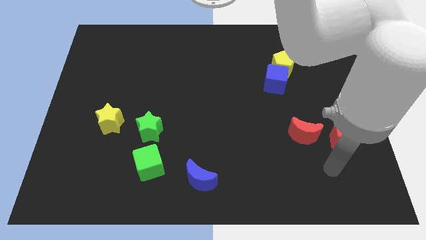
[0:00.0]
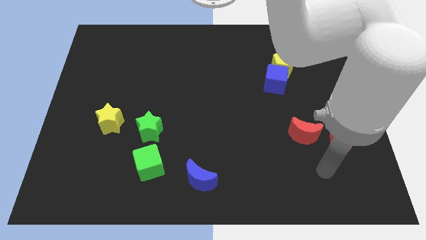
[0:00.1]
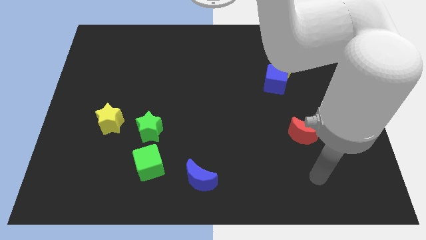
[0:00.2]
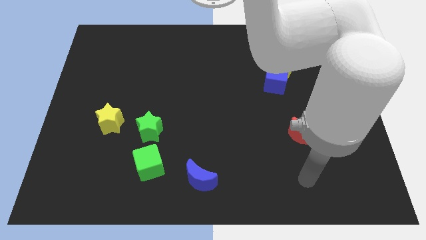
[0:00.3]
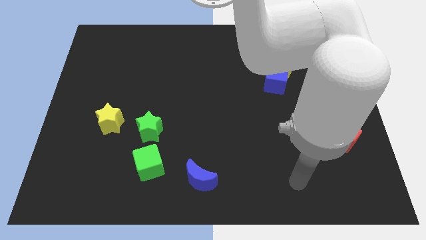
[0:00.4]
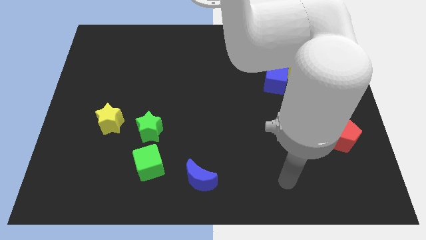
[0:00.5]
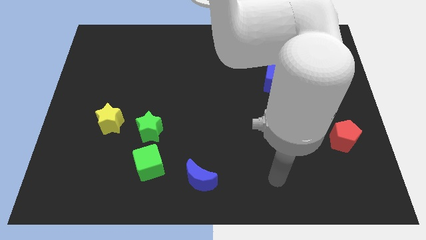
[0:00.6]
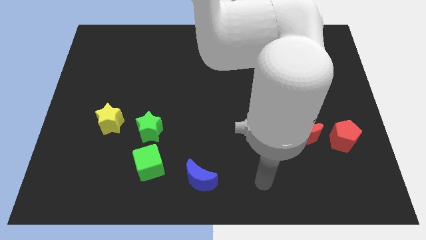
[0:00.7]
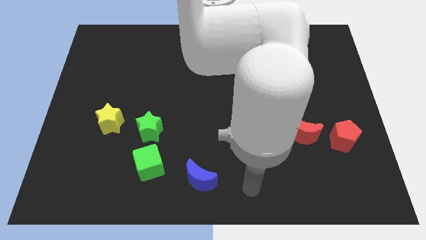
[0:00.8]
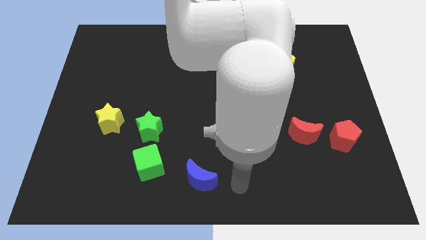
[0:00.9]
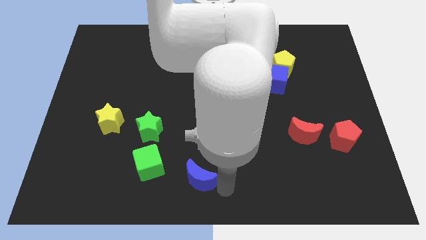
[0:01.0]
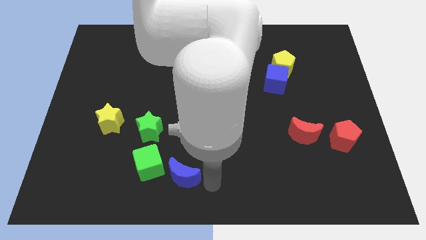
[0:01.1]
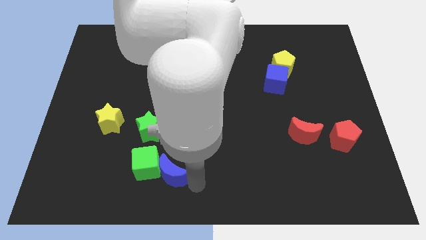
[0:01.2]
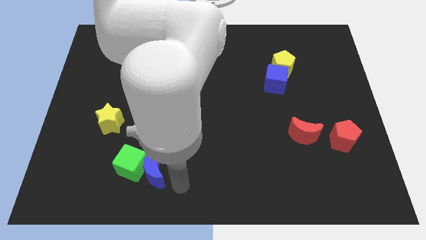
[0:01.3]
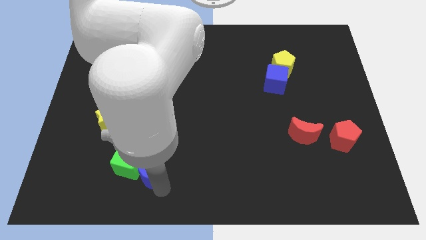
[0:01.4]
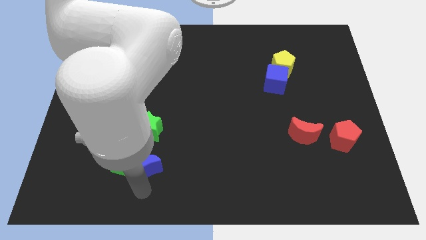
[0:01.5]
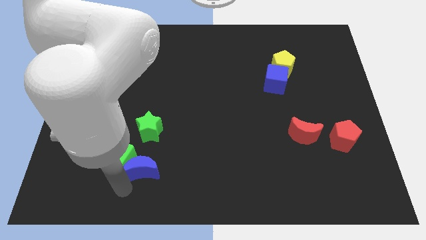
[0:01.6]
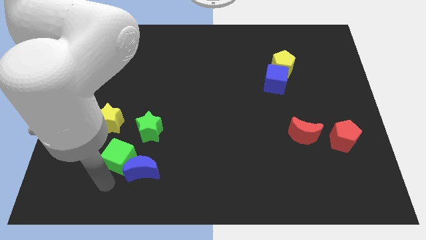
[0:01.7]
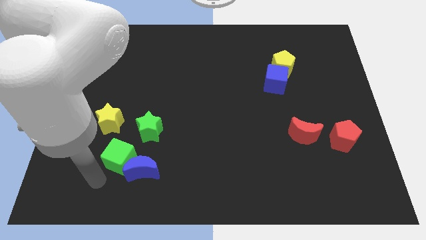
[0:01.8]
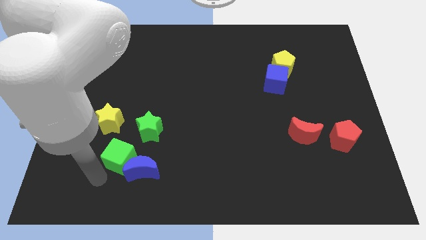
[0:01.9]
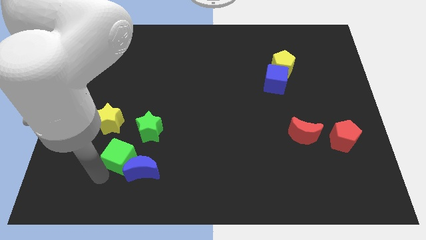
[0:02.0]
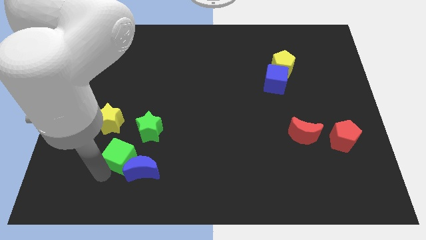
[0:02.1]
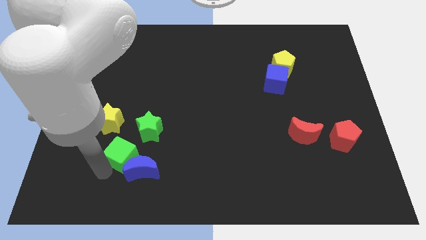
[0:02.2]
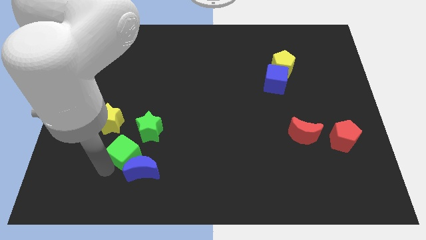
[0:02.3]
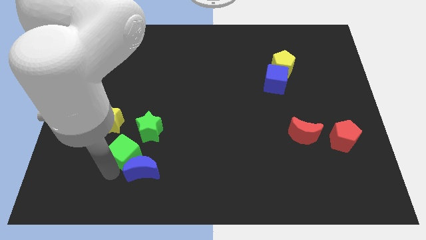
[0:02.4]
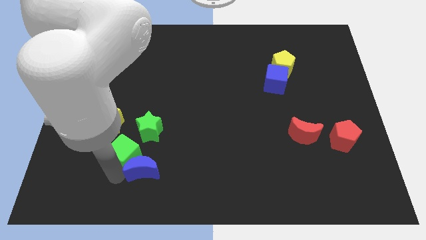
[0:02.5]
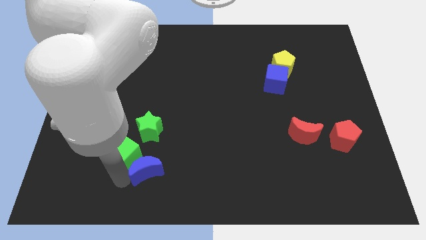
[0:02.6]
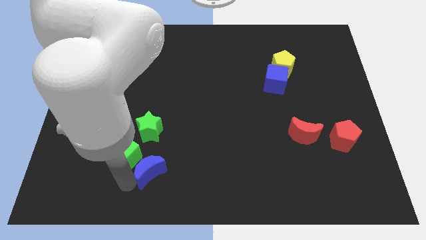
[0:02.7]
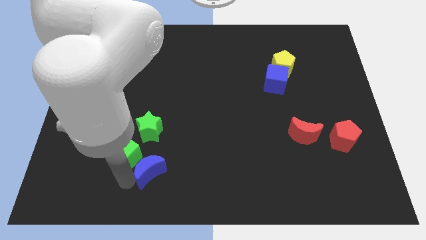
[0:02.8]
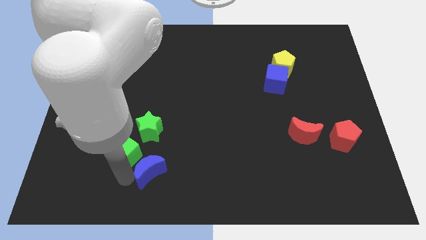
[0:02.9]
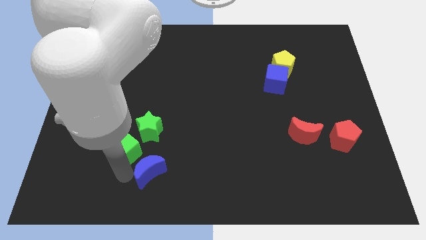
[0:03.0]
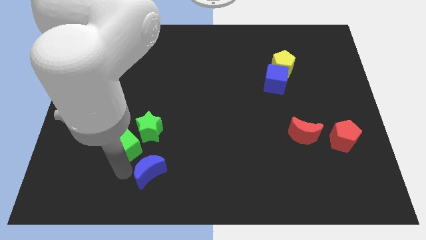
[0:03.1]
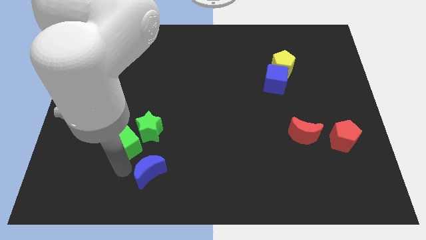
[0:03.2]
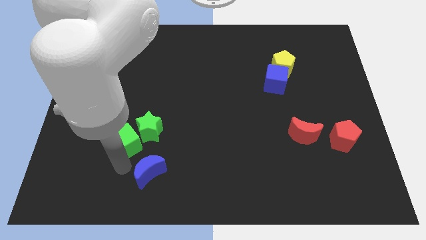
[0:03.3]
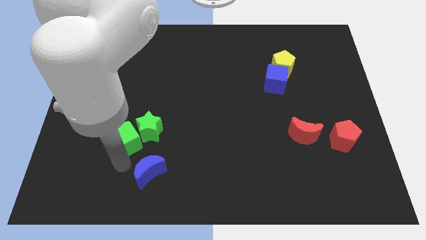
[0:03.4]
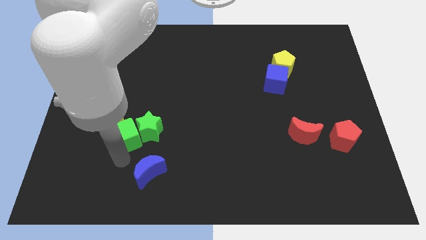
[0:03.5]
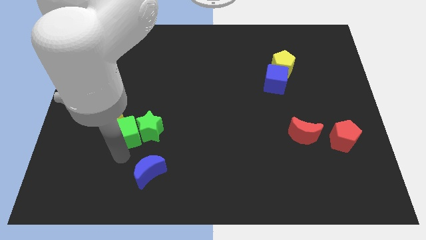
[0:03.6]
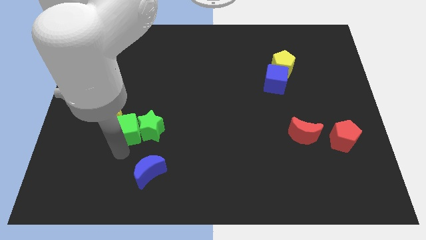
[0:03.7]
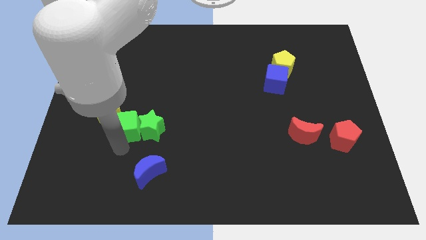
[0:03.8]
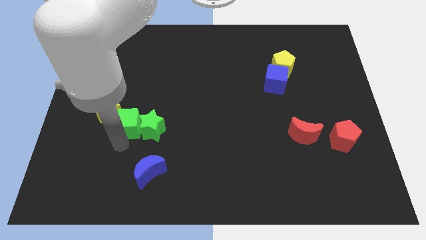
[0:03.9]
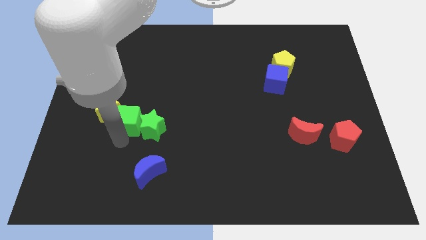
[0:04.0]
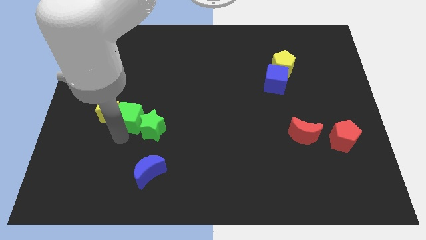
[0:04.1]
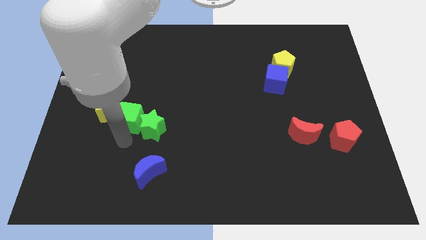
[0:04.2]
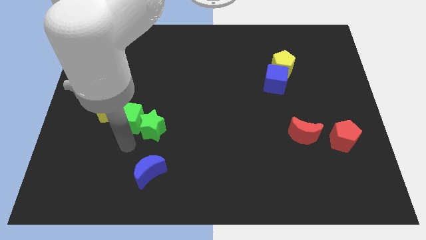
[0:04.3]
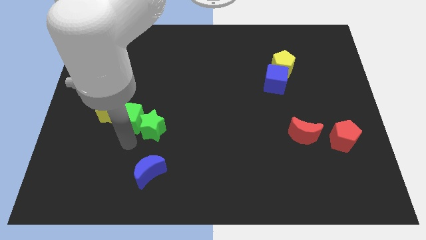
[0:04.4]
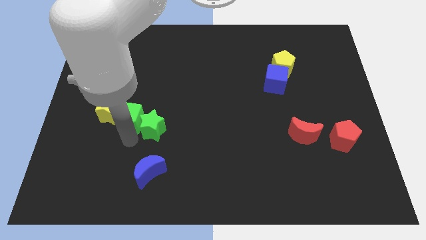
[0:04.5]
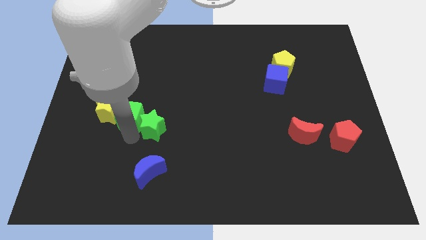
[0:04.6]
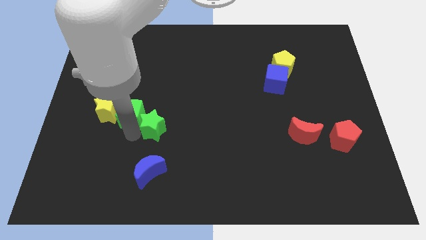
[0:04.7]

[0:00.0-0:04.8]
move the green cube to the top right of the yellow star

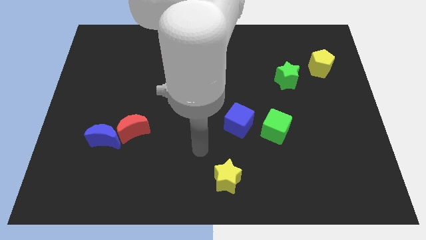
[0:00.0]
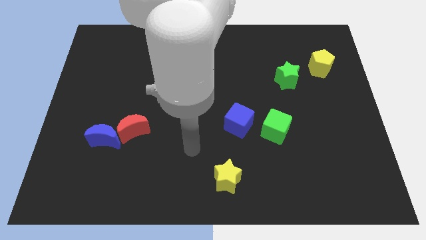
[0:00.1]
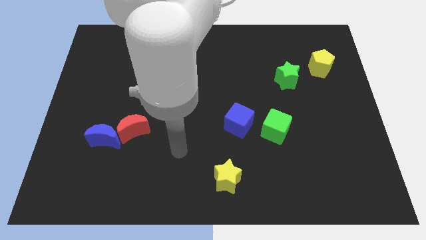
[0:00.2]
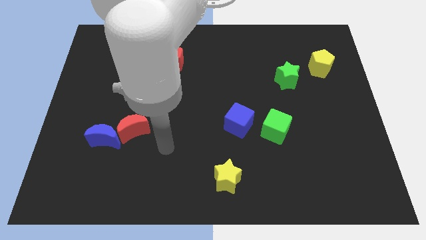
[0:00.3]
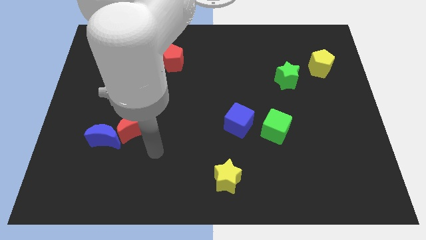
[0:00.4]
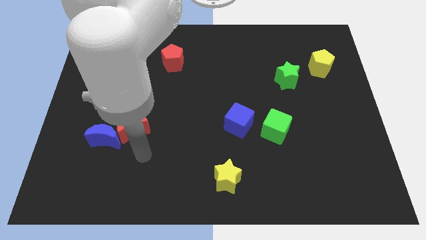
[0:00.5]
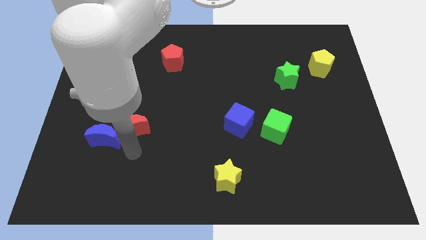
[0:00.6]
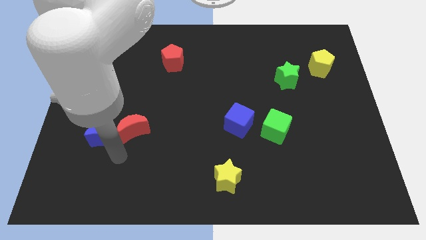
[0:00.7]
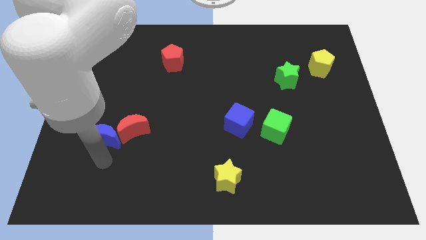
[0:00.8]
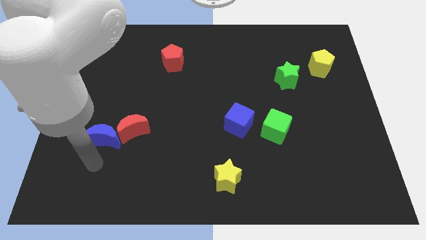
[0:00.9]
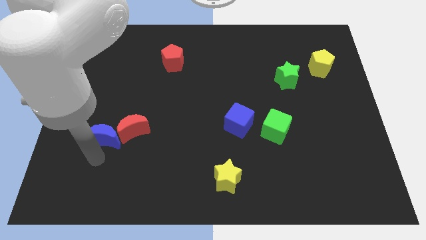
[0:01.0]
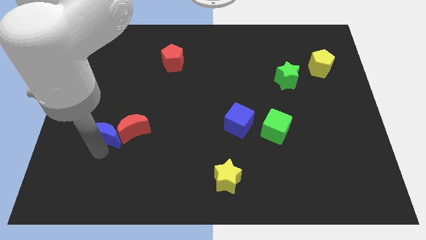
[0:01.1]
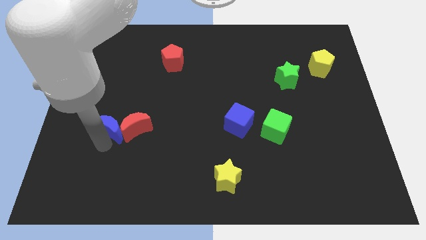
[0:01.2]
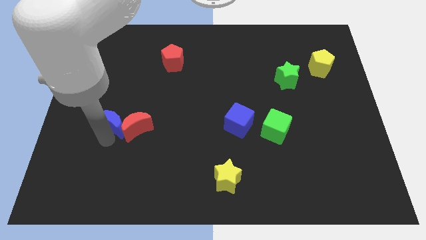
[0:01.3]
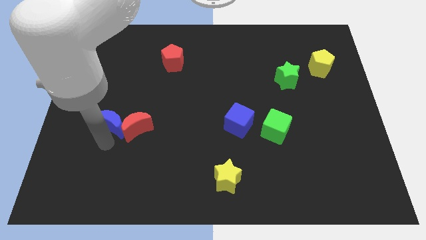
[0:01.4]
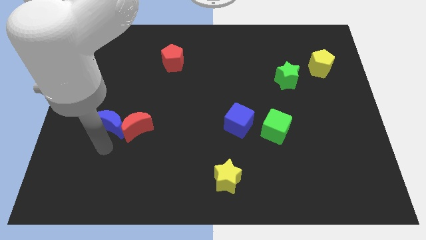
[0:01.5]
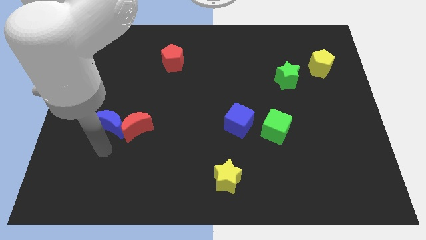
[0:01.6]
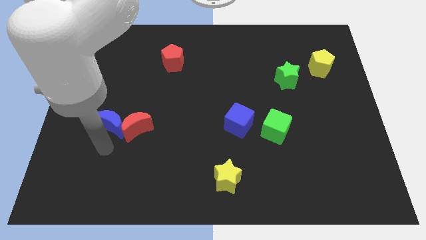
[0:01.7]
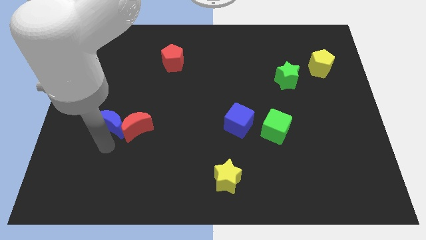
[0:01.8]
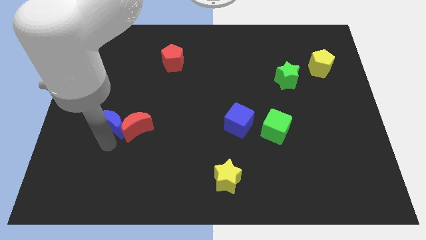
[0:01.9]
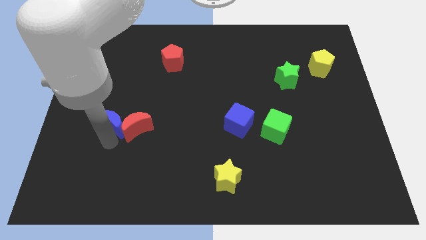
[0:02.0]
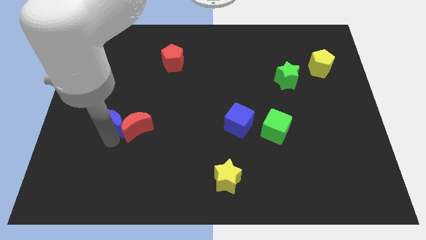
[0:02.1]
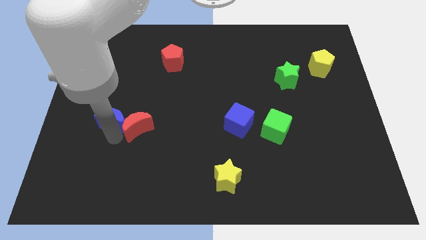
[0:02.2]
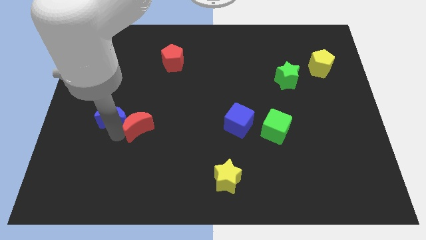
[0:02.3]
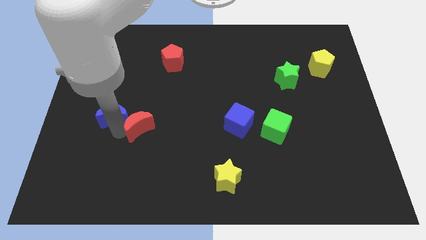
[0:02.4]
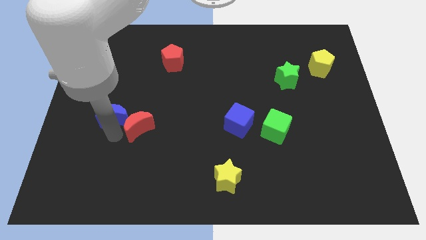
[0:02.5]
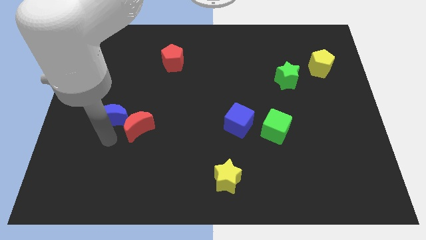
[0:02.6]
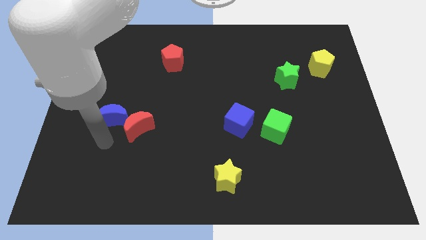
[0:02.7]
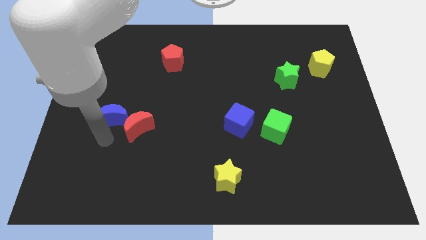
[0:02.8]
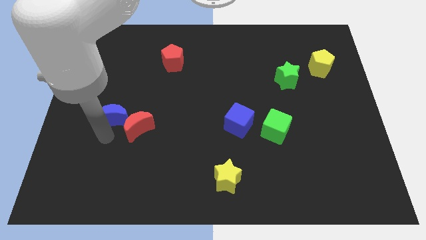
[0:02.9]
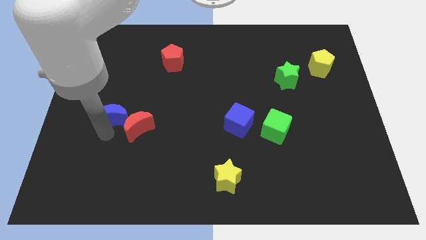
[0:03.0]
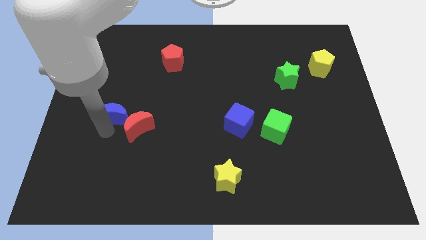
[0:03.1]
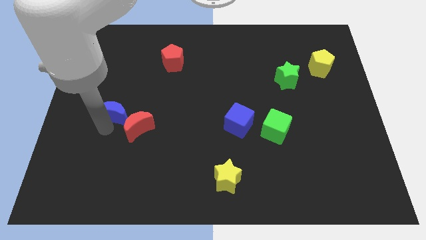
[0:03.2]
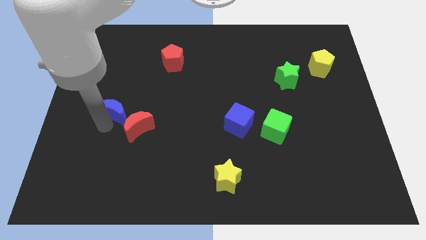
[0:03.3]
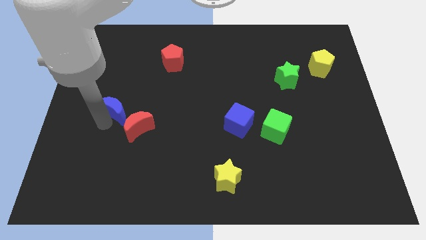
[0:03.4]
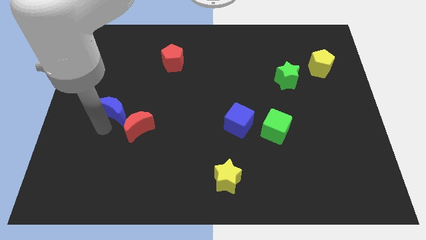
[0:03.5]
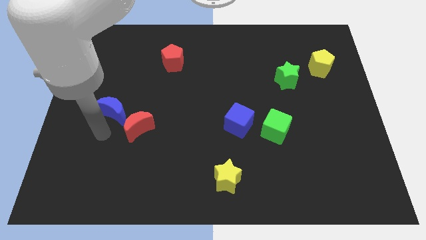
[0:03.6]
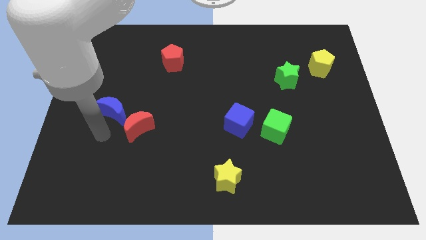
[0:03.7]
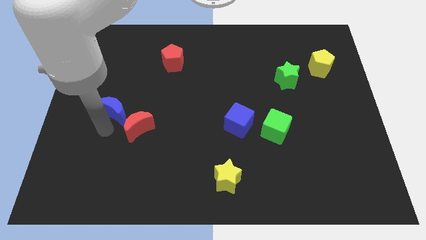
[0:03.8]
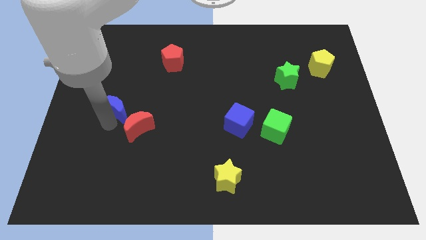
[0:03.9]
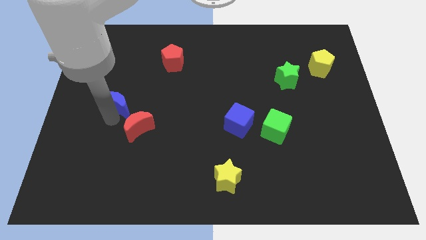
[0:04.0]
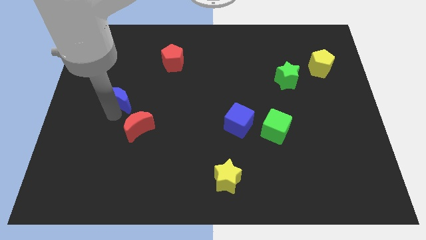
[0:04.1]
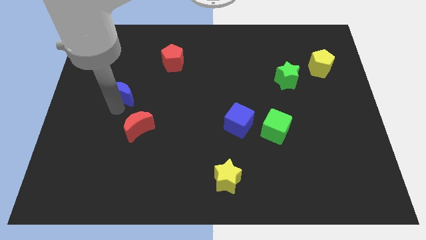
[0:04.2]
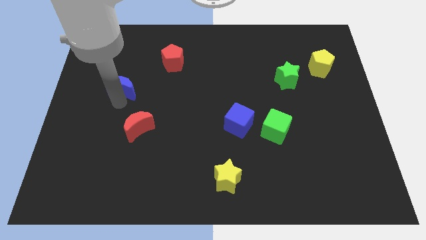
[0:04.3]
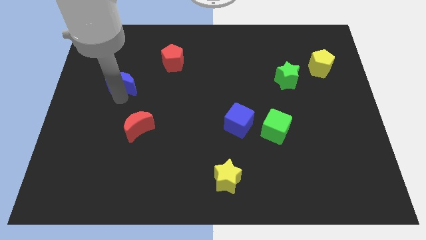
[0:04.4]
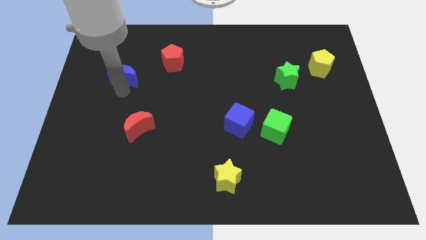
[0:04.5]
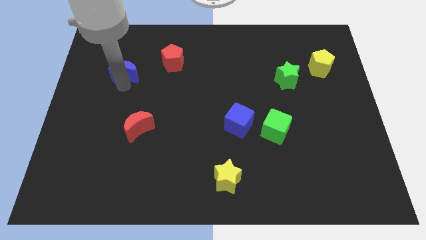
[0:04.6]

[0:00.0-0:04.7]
move the blue moon just left of the red pentagon
